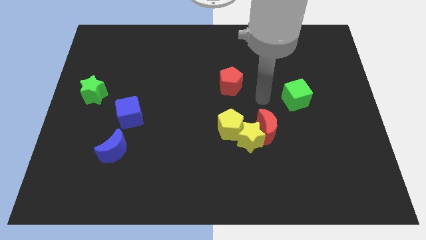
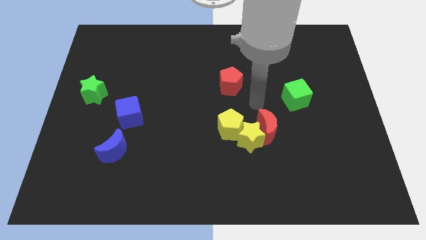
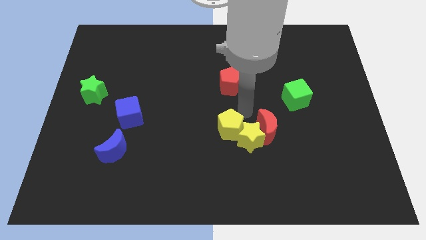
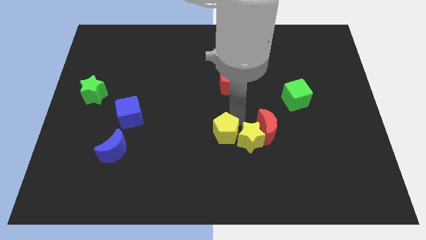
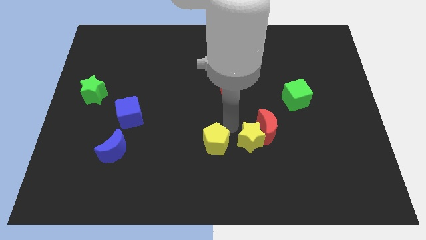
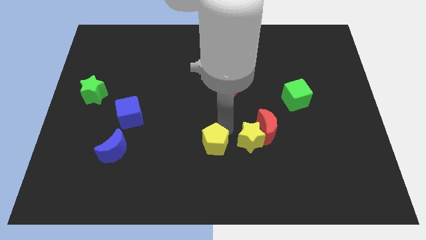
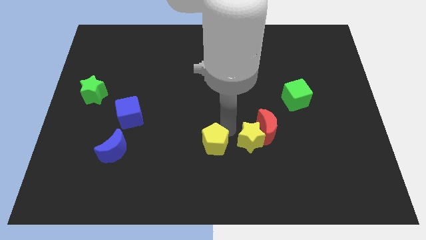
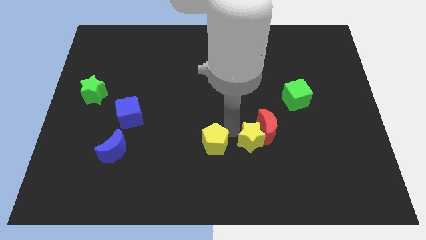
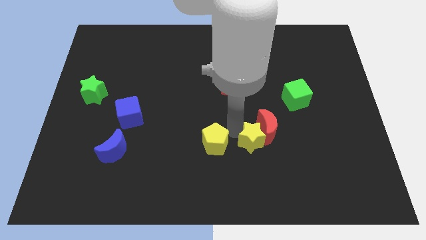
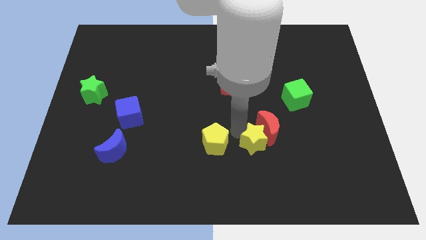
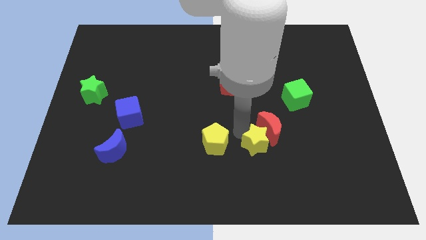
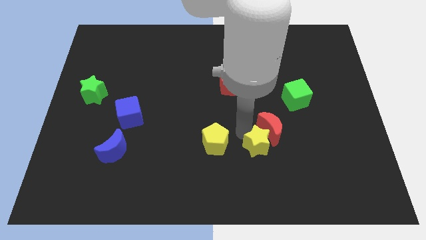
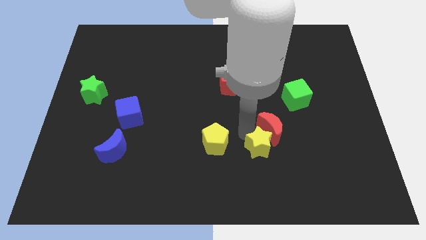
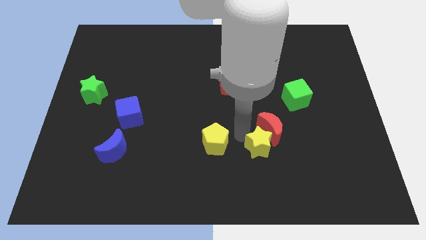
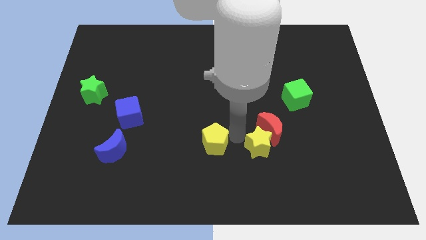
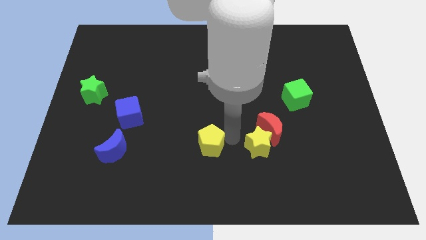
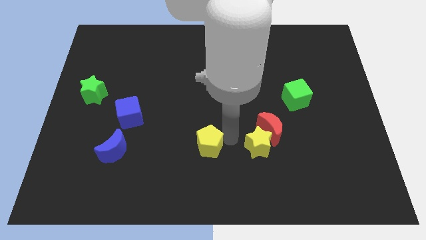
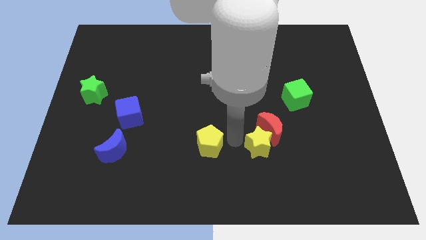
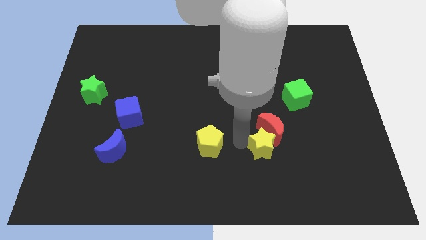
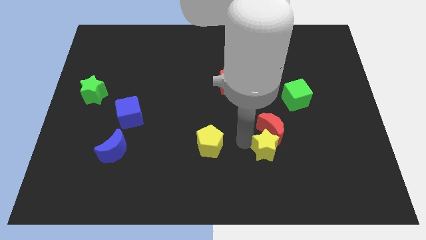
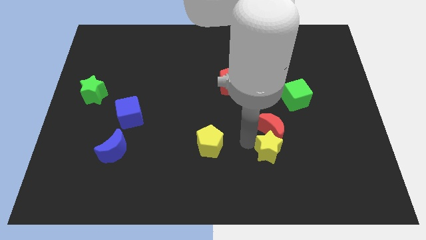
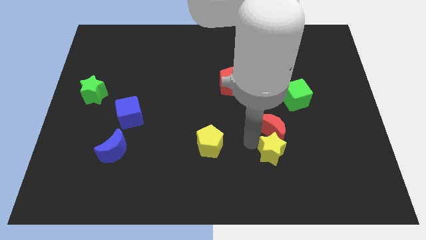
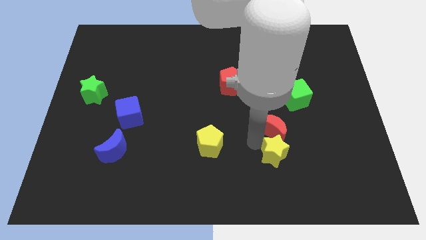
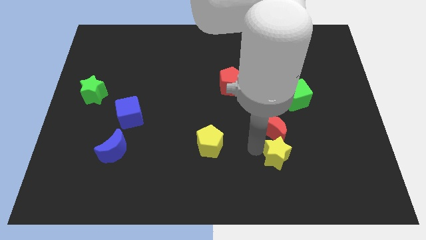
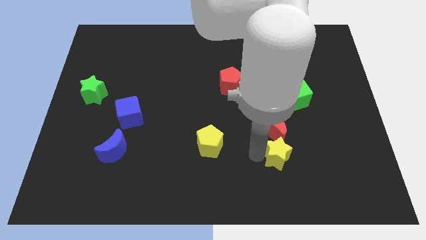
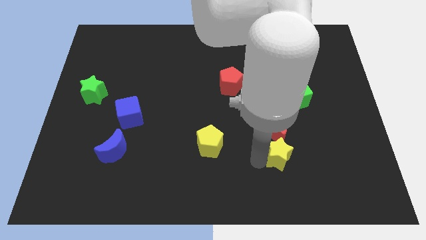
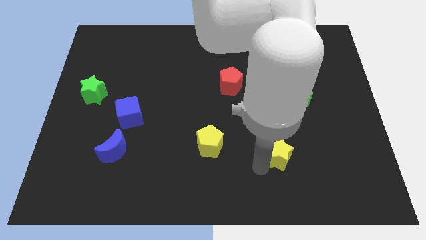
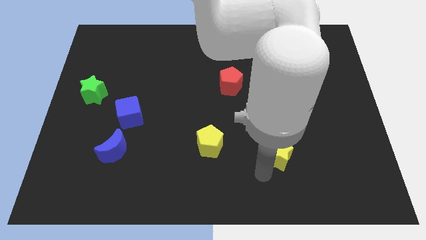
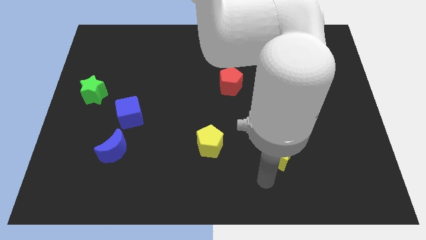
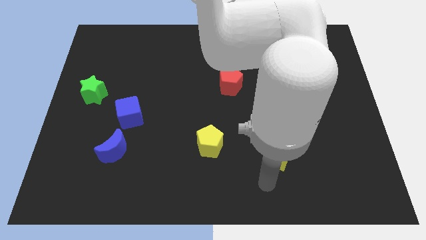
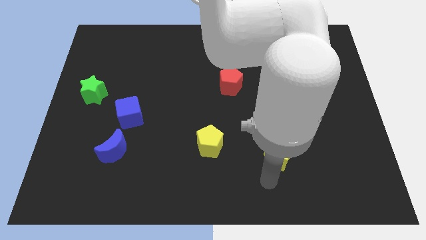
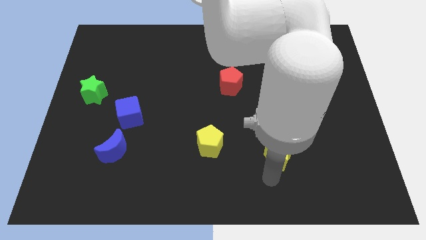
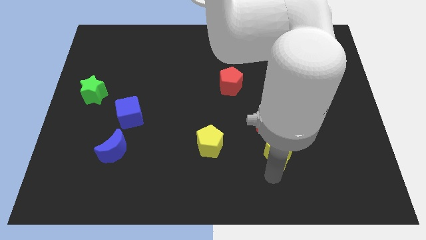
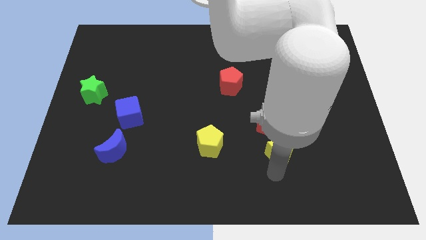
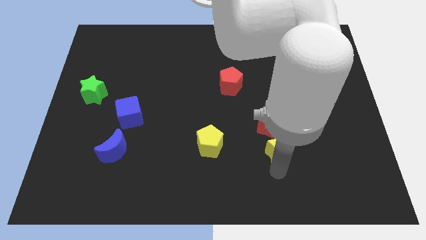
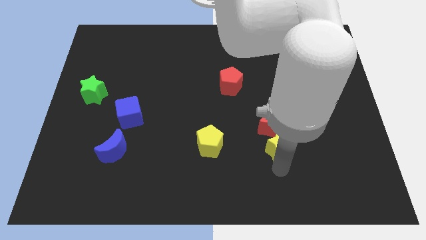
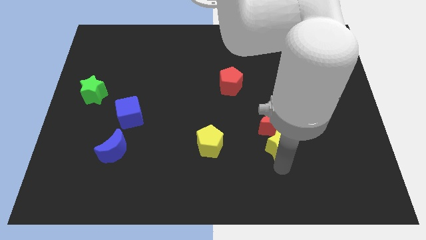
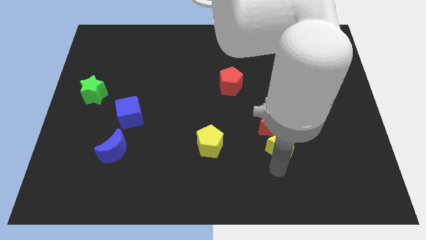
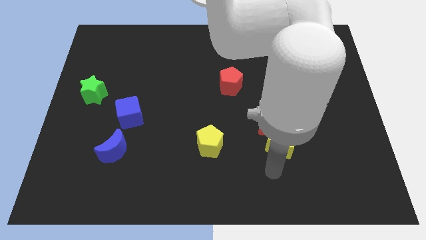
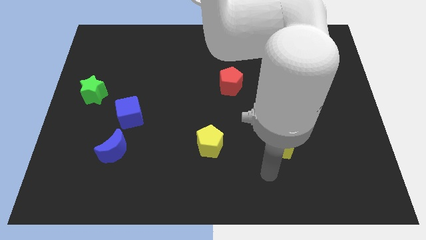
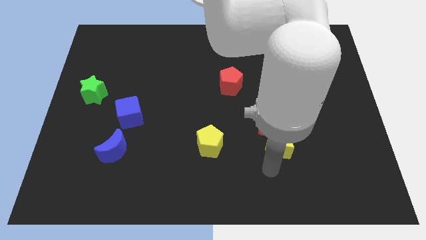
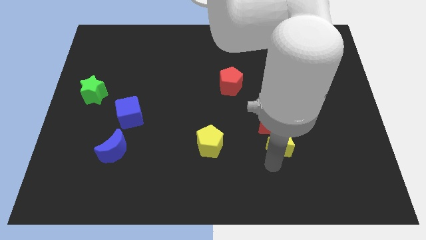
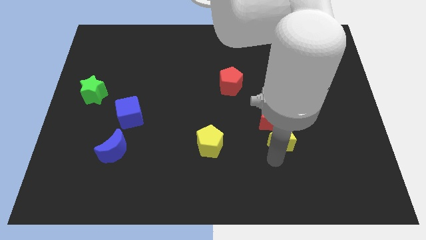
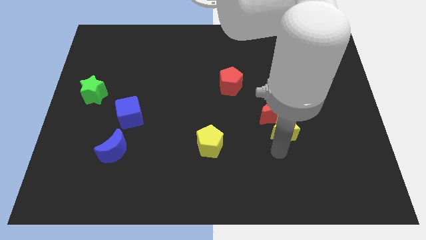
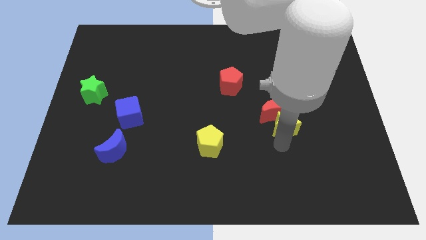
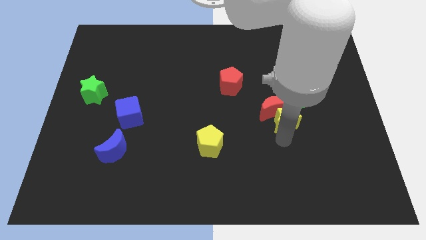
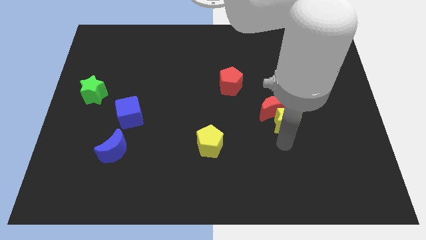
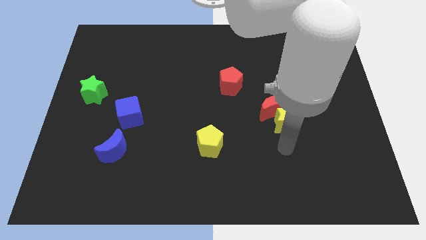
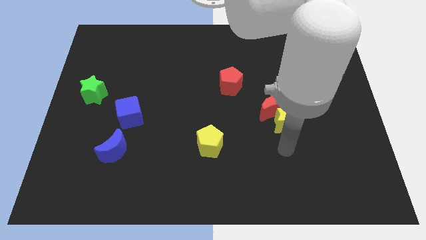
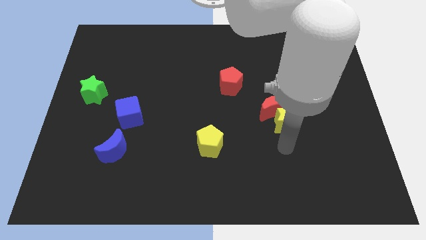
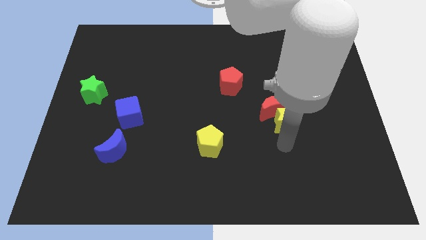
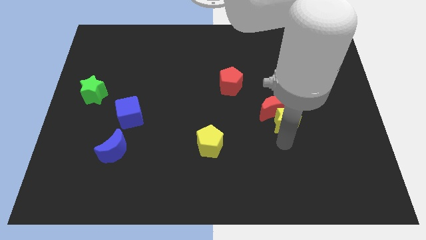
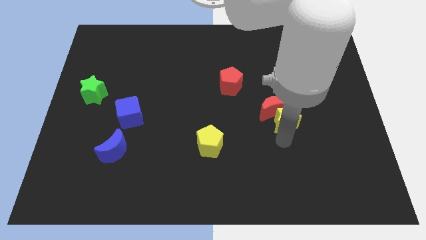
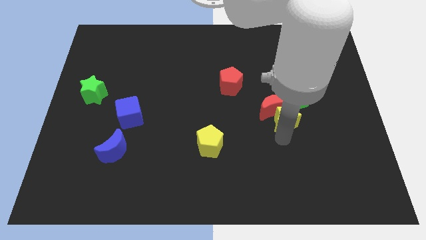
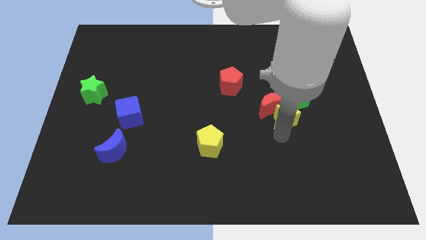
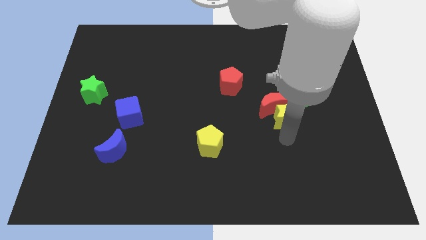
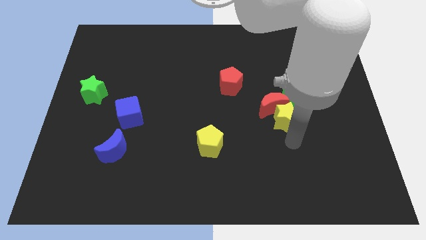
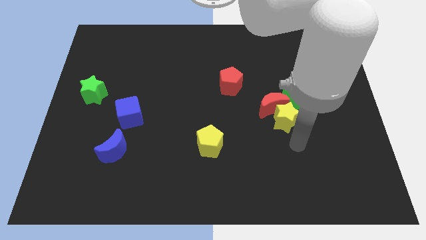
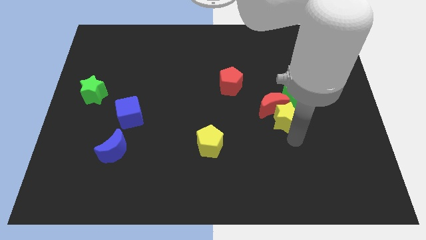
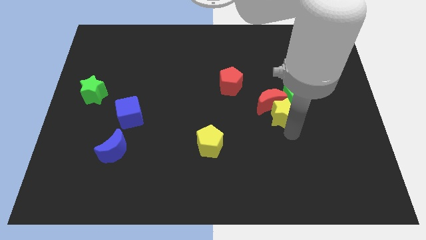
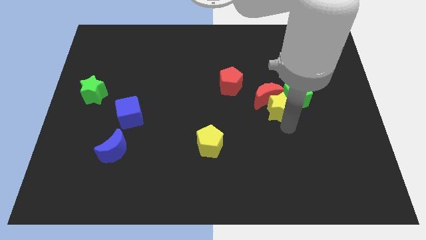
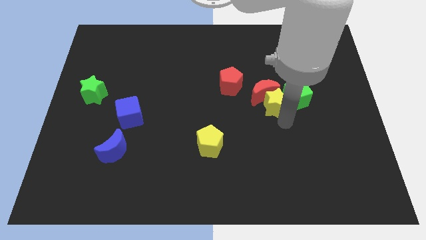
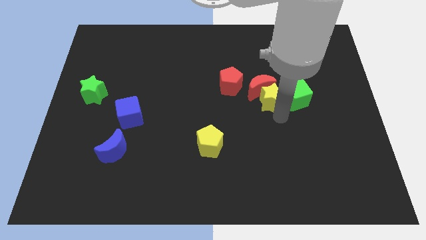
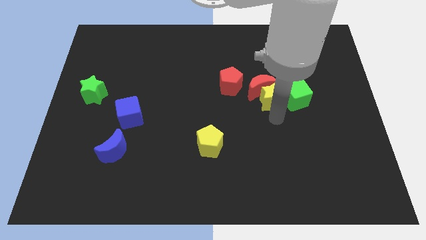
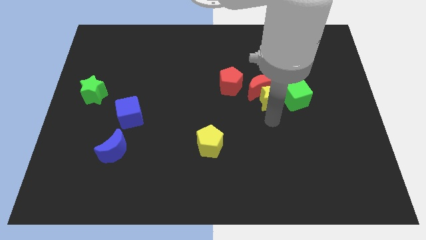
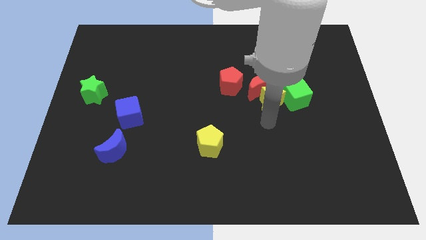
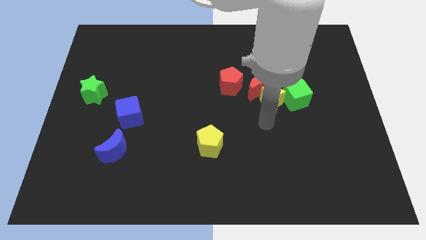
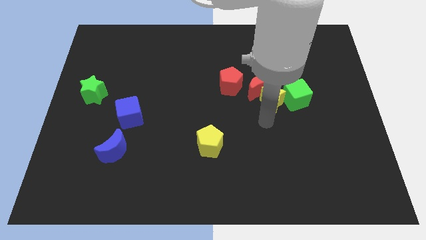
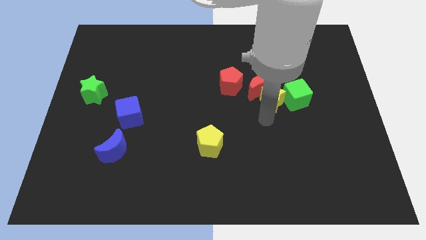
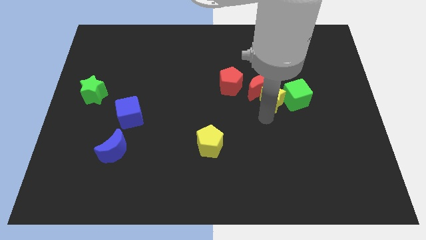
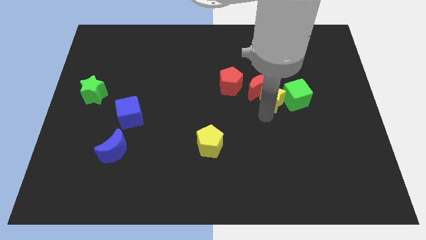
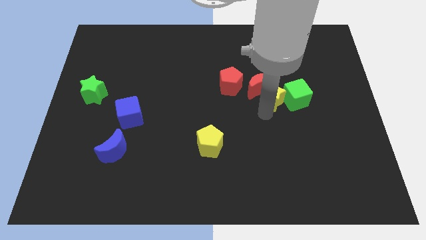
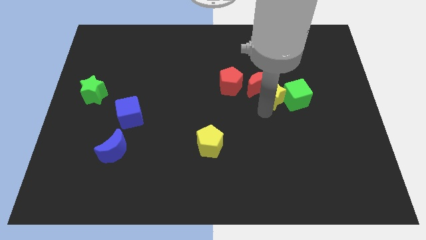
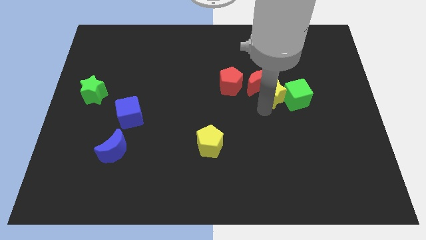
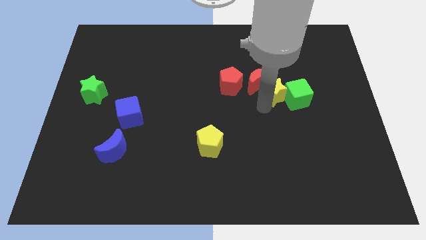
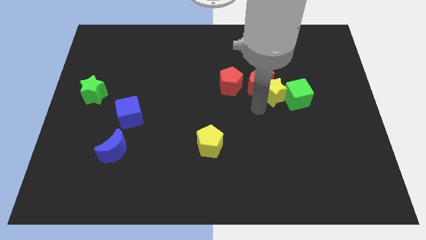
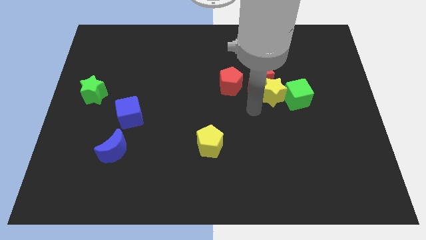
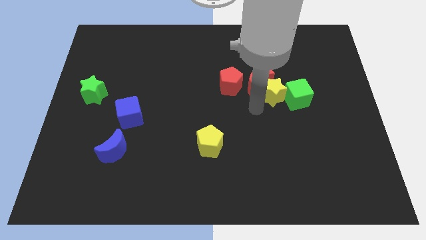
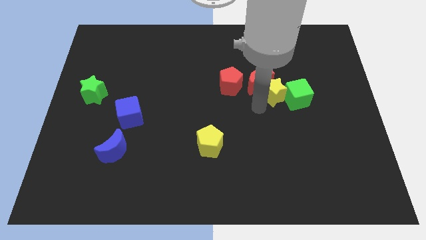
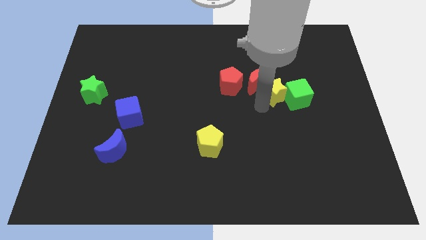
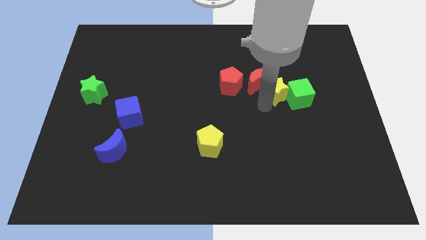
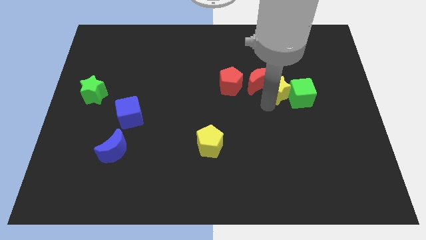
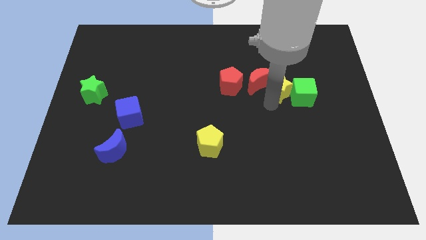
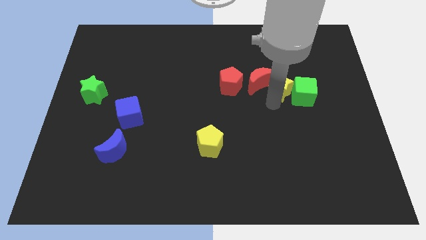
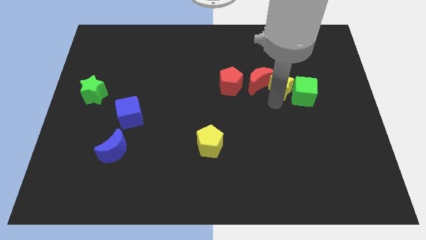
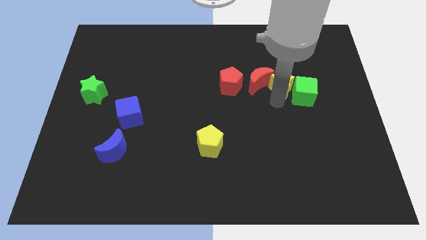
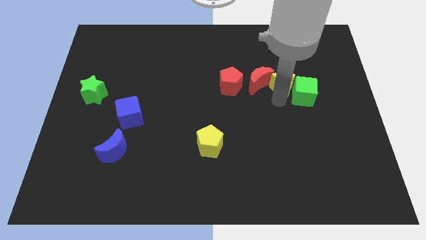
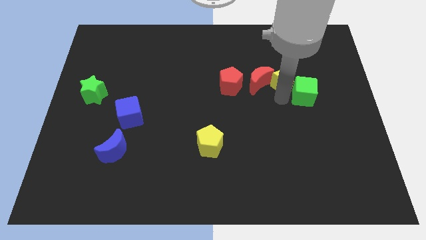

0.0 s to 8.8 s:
put the yellow star to the top side of the green cube
